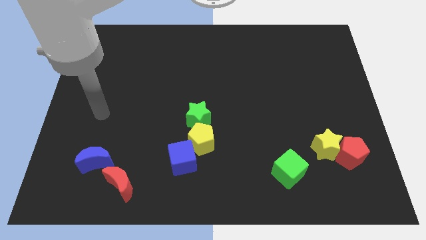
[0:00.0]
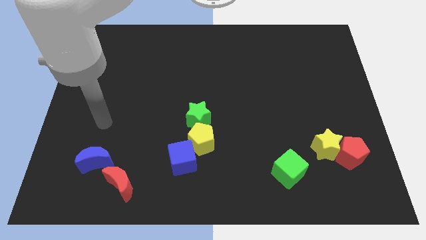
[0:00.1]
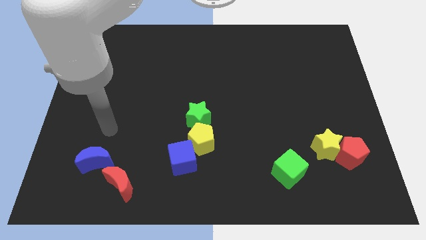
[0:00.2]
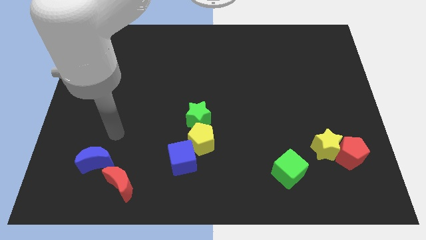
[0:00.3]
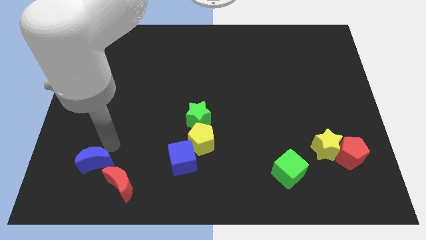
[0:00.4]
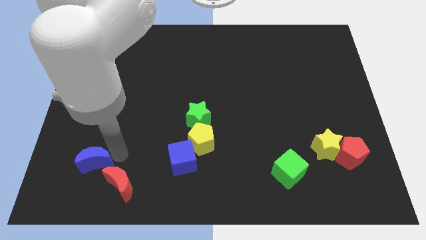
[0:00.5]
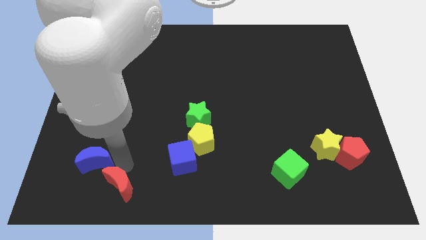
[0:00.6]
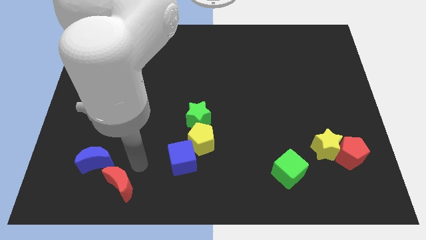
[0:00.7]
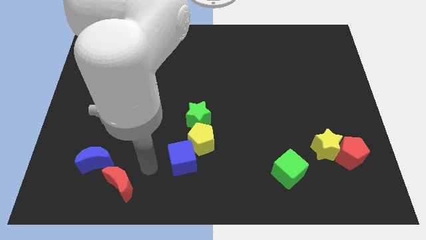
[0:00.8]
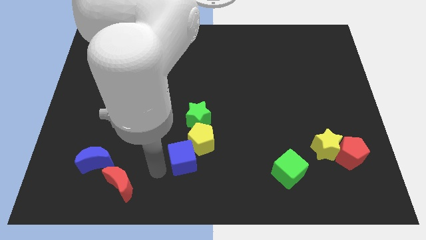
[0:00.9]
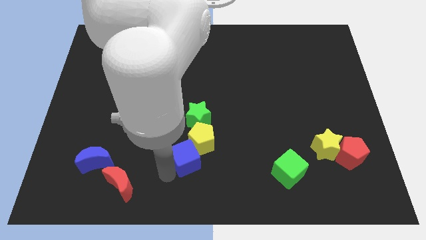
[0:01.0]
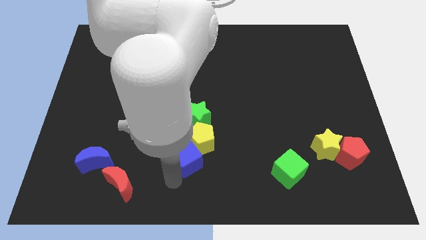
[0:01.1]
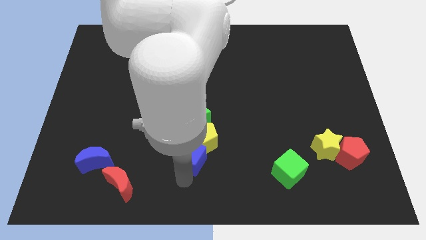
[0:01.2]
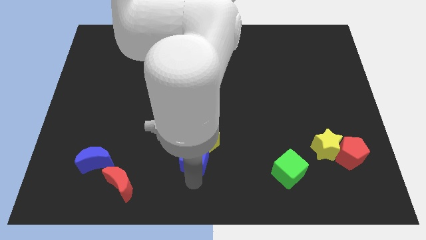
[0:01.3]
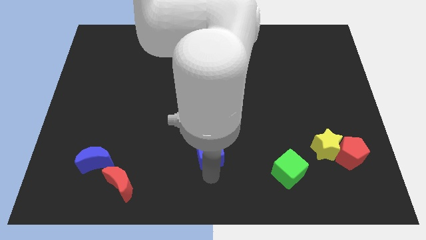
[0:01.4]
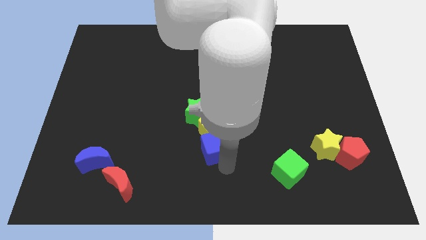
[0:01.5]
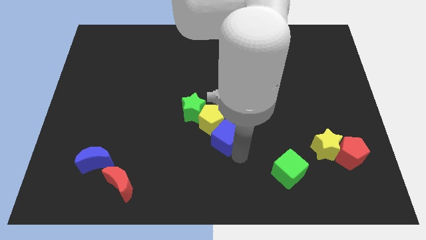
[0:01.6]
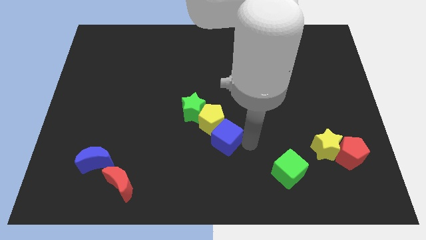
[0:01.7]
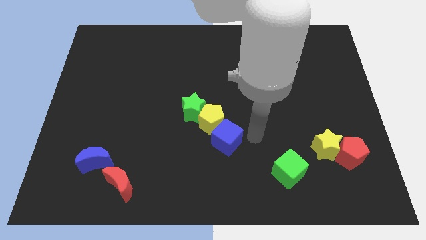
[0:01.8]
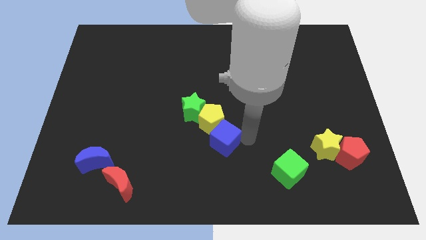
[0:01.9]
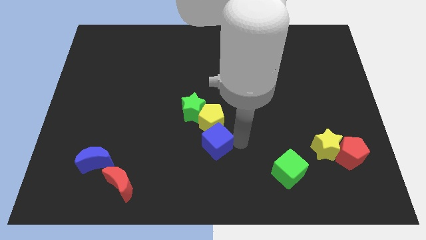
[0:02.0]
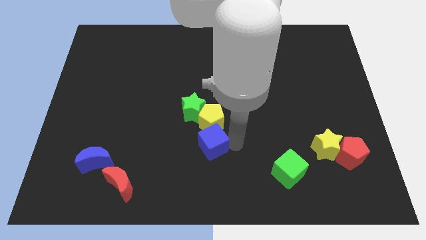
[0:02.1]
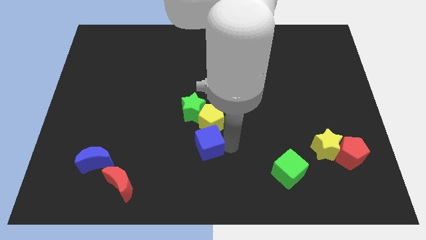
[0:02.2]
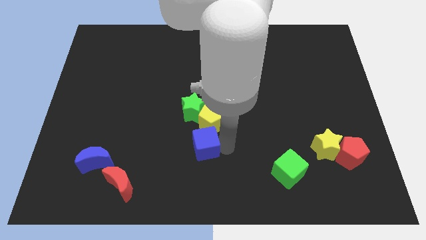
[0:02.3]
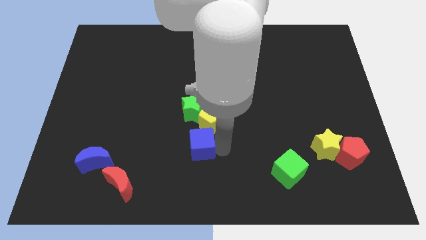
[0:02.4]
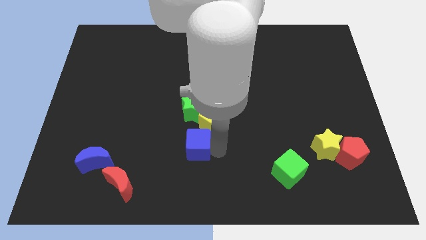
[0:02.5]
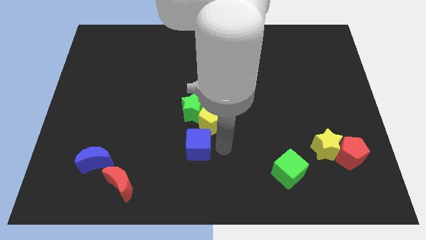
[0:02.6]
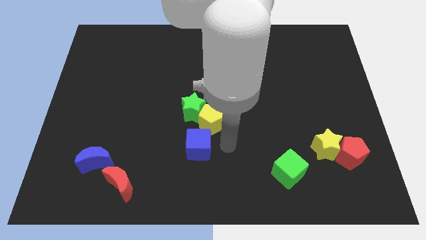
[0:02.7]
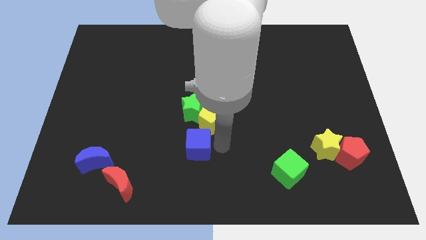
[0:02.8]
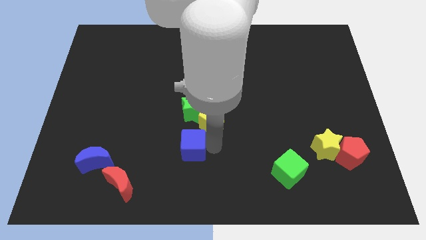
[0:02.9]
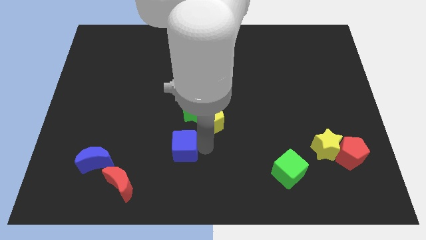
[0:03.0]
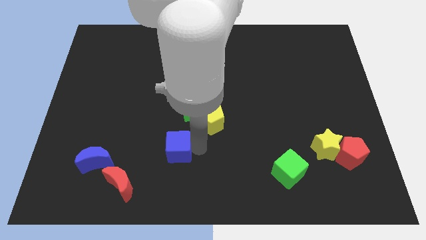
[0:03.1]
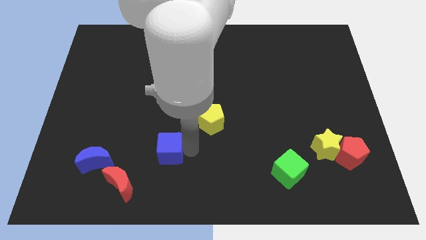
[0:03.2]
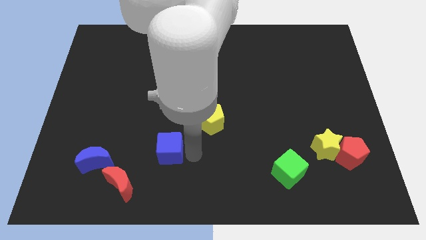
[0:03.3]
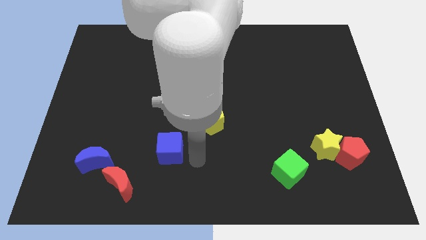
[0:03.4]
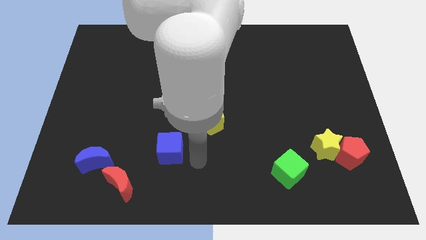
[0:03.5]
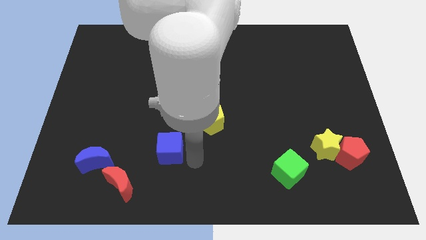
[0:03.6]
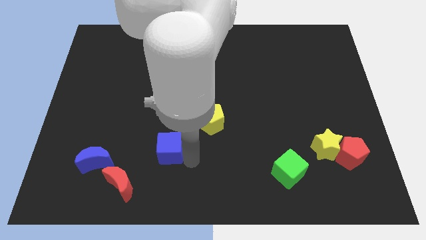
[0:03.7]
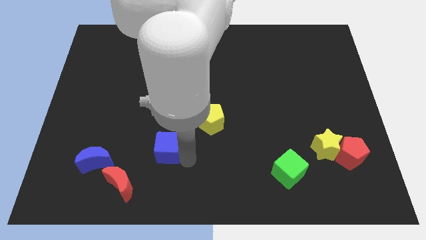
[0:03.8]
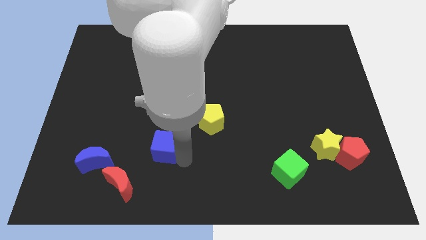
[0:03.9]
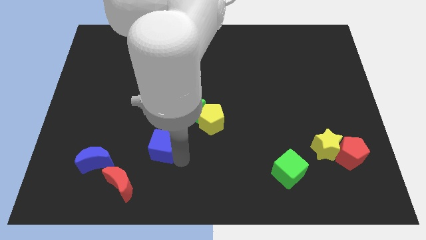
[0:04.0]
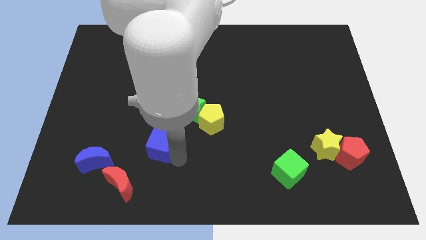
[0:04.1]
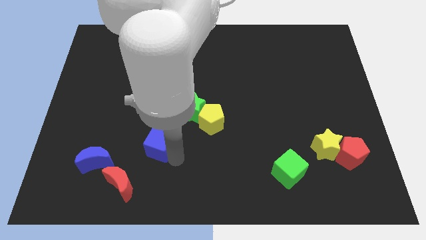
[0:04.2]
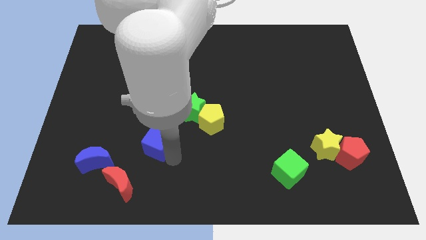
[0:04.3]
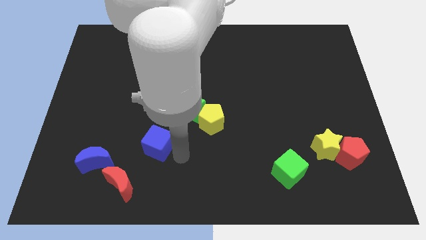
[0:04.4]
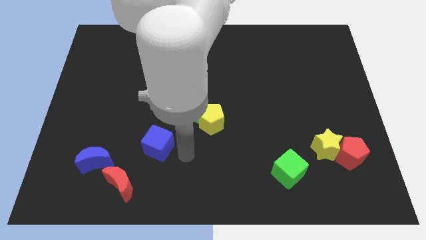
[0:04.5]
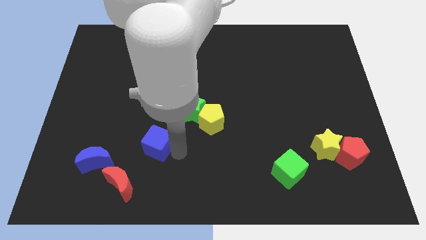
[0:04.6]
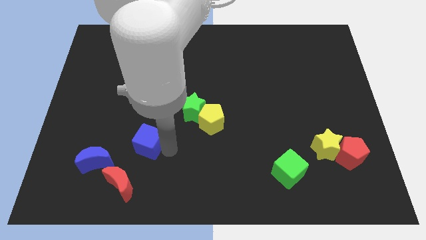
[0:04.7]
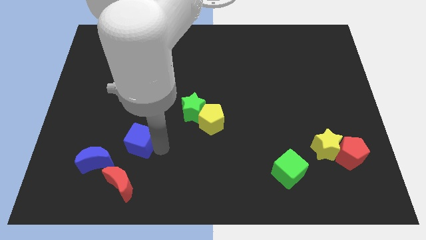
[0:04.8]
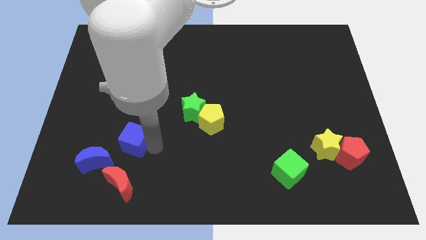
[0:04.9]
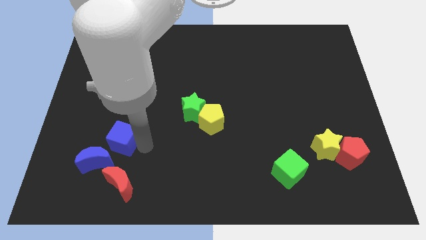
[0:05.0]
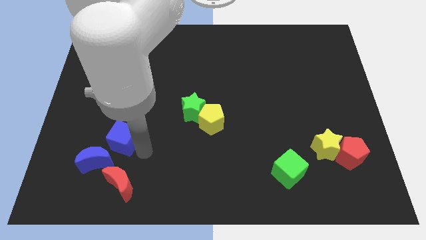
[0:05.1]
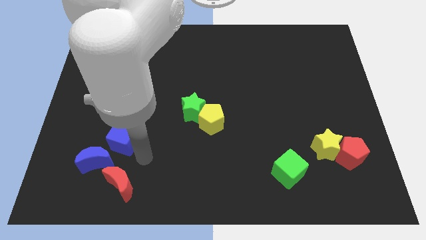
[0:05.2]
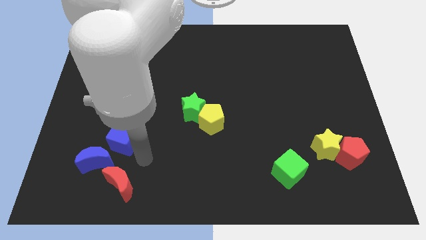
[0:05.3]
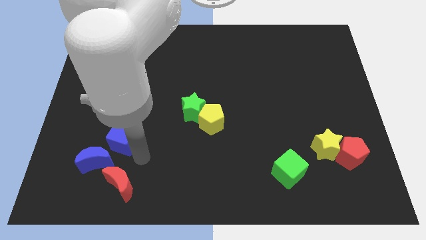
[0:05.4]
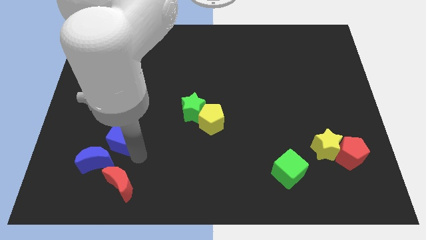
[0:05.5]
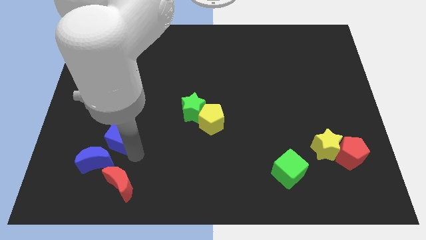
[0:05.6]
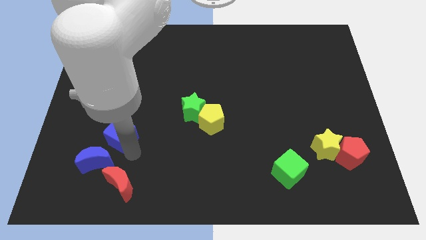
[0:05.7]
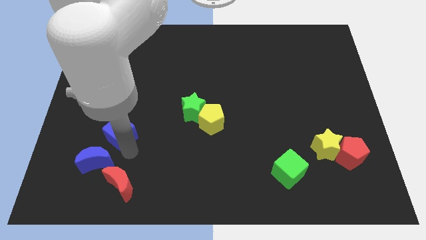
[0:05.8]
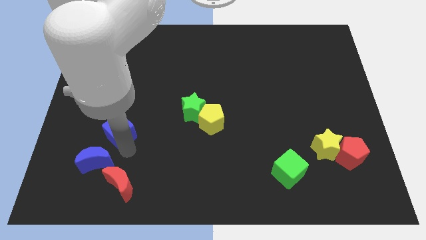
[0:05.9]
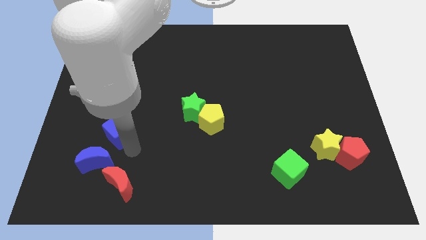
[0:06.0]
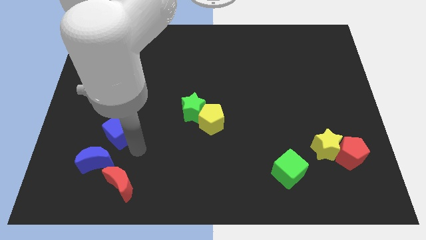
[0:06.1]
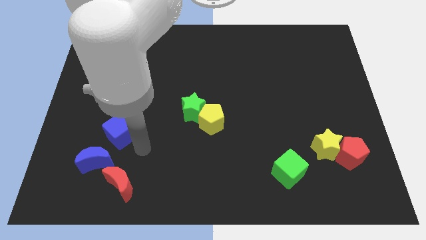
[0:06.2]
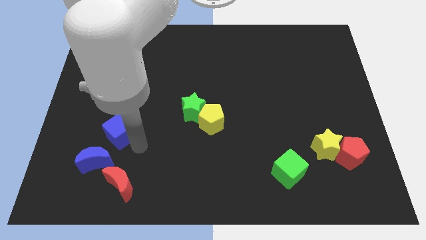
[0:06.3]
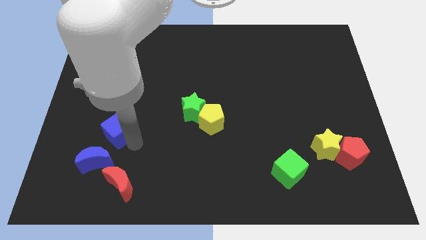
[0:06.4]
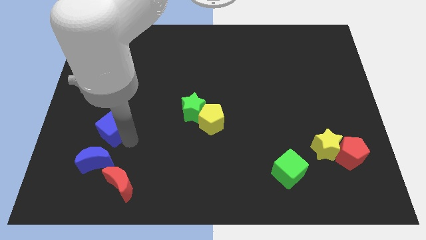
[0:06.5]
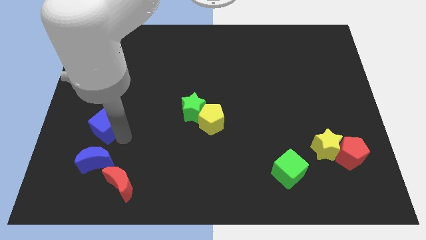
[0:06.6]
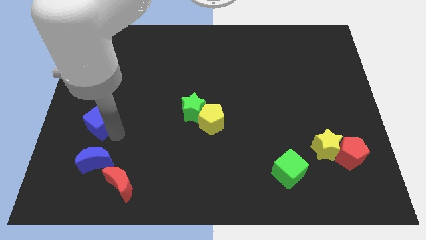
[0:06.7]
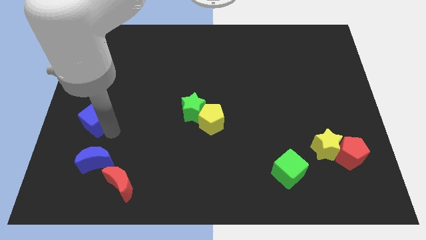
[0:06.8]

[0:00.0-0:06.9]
put the blue cube to the left side
